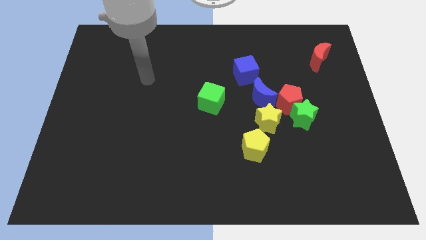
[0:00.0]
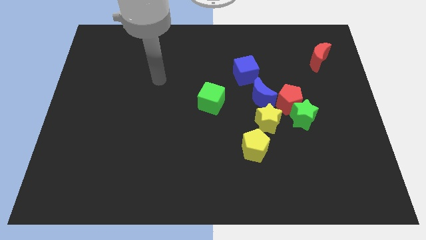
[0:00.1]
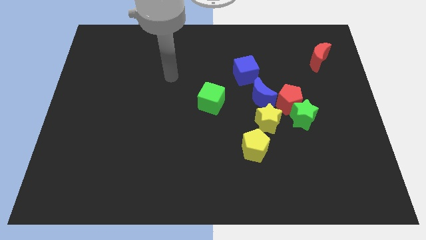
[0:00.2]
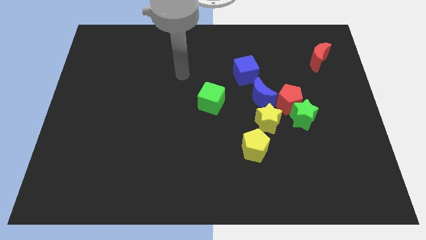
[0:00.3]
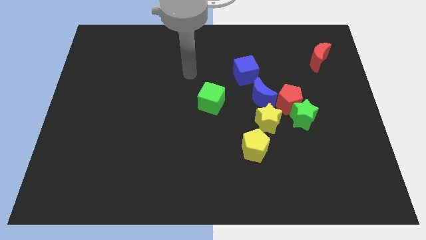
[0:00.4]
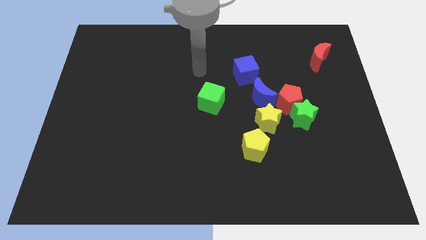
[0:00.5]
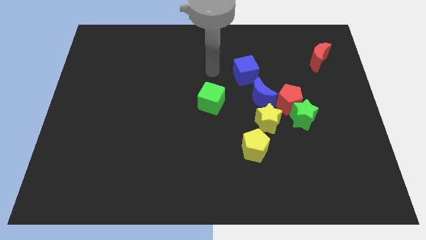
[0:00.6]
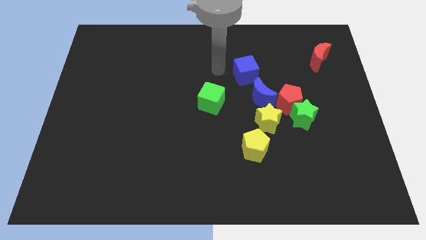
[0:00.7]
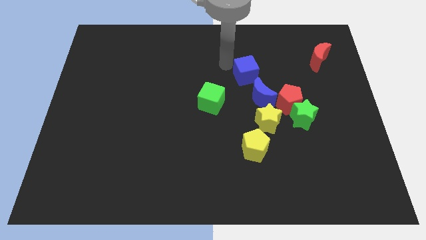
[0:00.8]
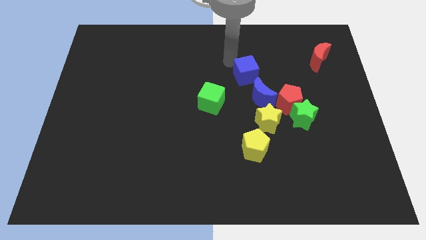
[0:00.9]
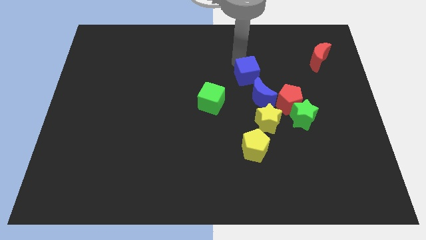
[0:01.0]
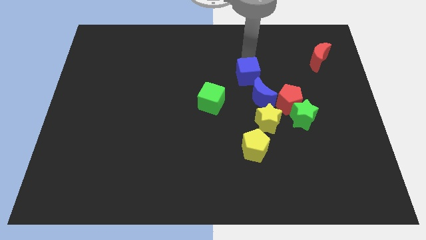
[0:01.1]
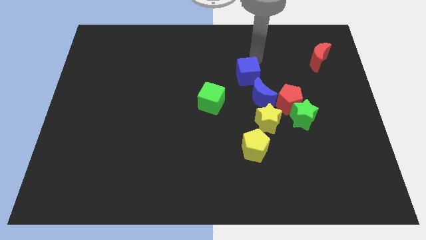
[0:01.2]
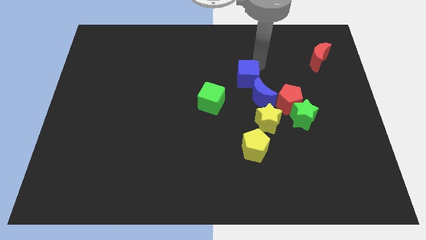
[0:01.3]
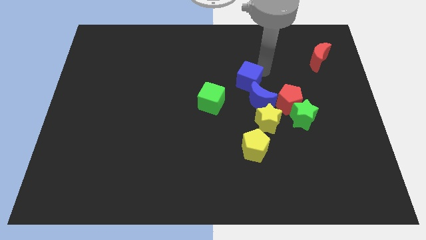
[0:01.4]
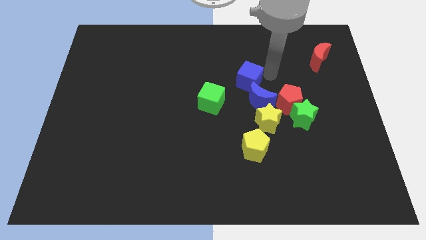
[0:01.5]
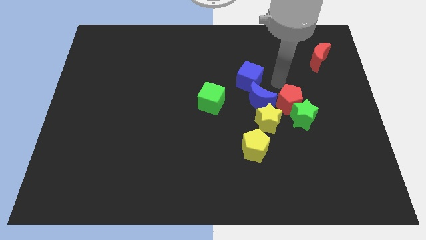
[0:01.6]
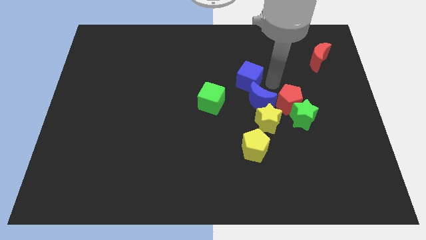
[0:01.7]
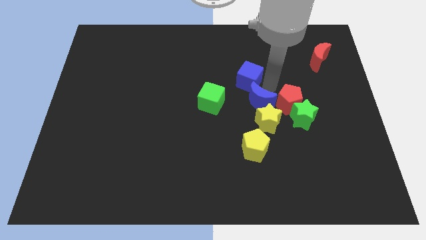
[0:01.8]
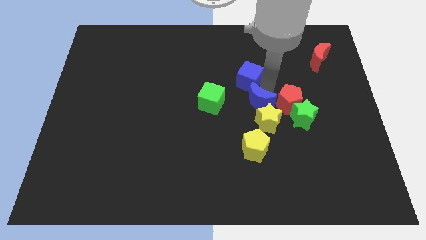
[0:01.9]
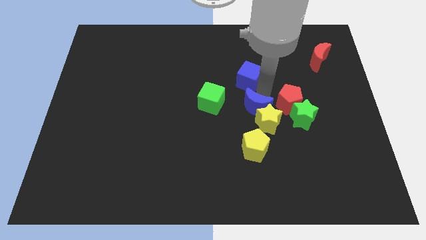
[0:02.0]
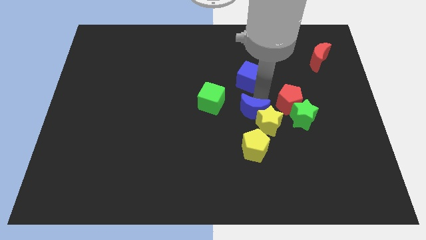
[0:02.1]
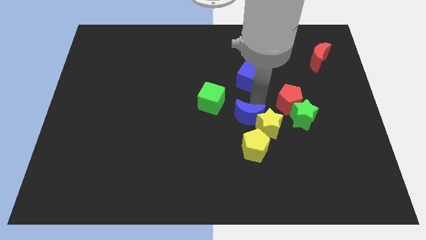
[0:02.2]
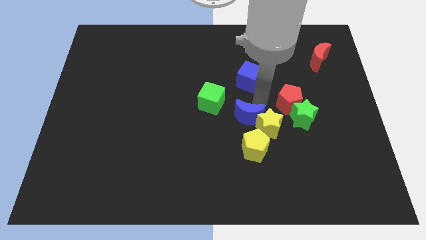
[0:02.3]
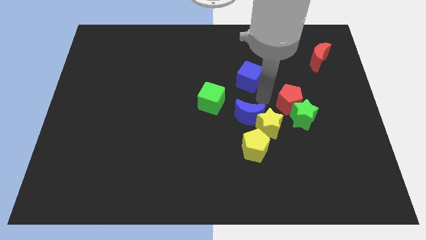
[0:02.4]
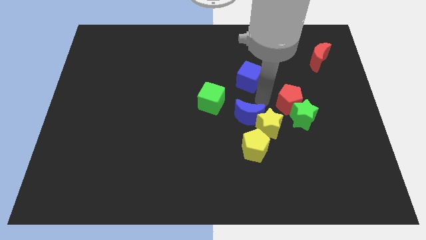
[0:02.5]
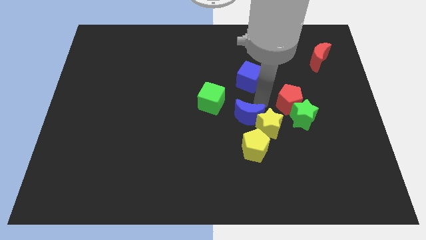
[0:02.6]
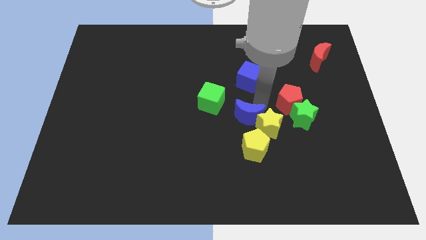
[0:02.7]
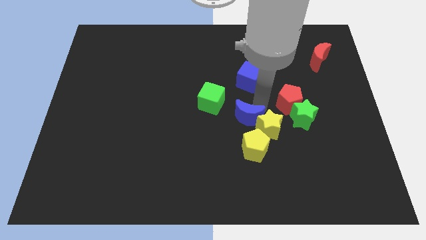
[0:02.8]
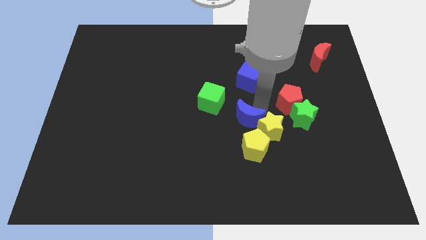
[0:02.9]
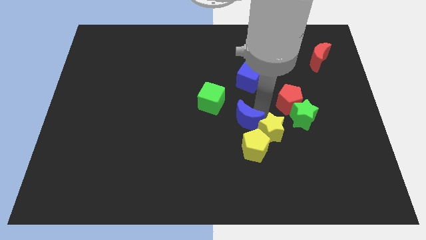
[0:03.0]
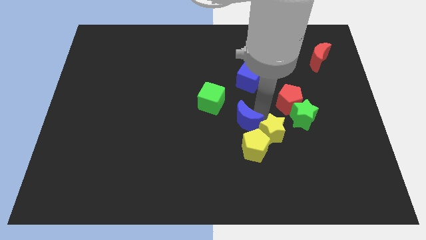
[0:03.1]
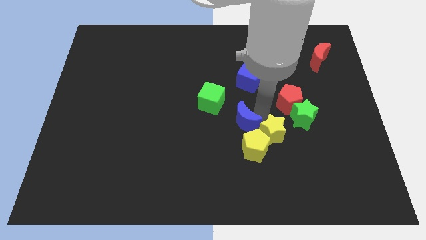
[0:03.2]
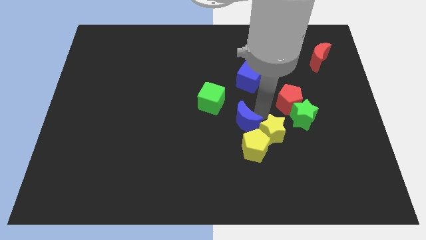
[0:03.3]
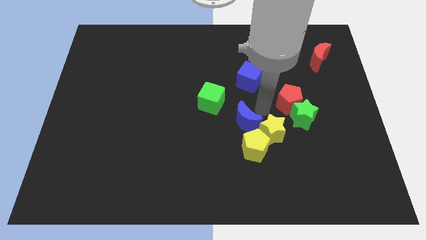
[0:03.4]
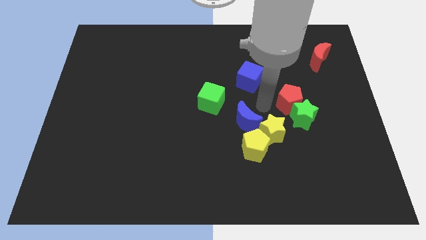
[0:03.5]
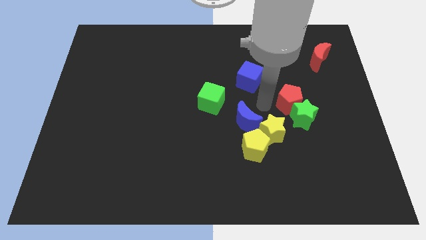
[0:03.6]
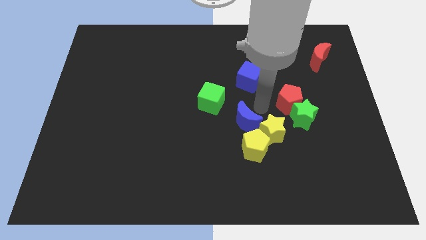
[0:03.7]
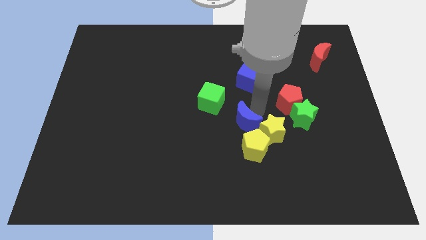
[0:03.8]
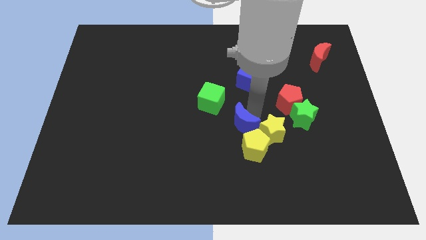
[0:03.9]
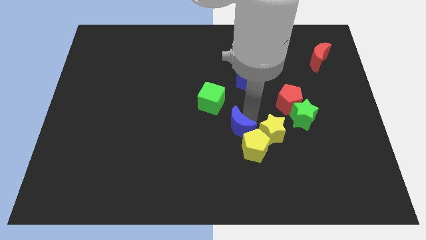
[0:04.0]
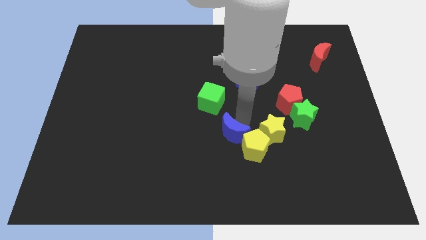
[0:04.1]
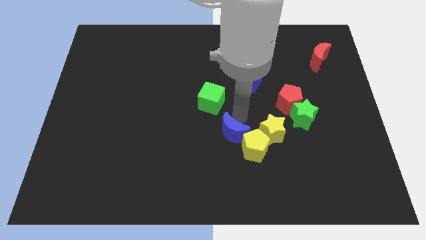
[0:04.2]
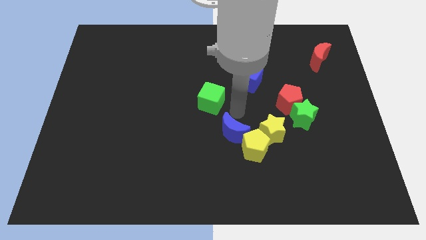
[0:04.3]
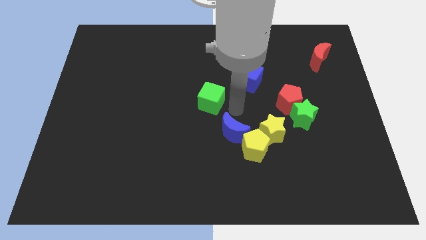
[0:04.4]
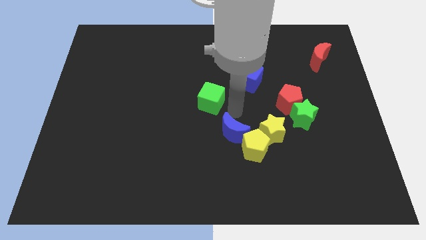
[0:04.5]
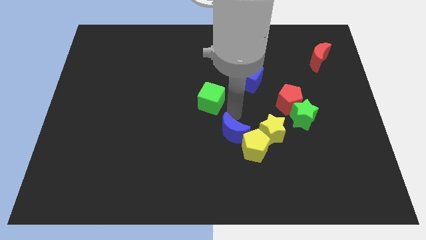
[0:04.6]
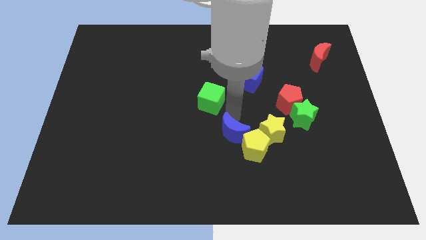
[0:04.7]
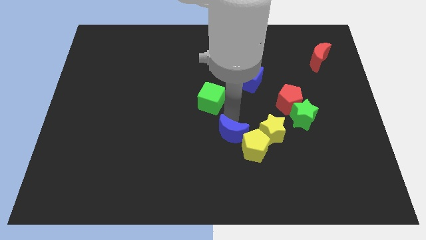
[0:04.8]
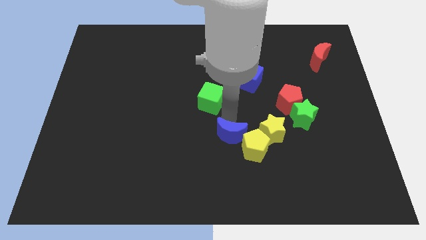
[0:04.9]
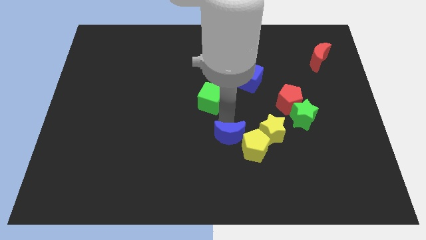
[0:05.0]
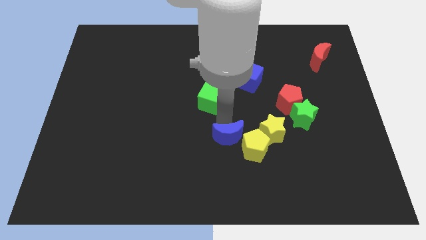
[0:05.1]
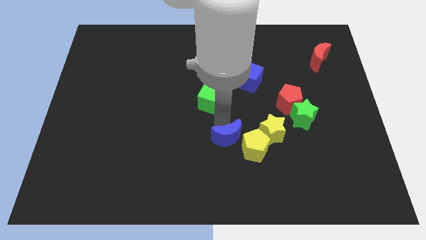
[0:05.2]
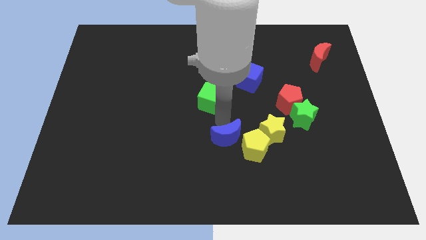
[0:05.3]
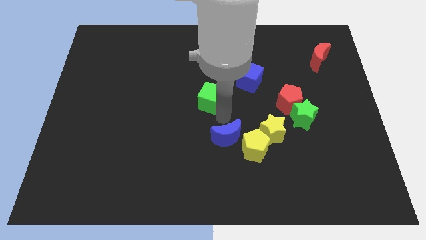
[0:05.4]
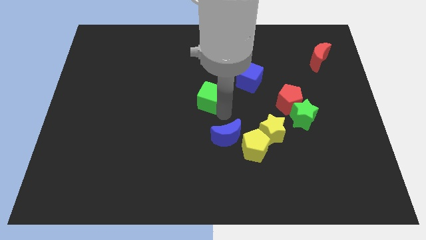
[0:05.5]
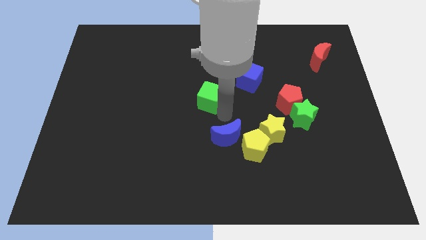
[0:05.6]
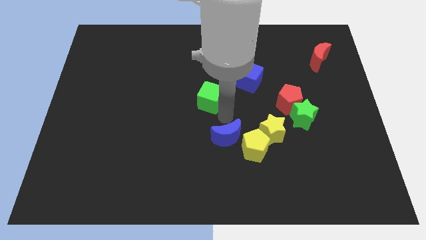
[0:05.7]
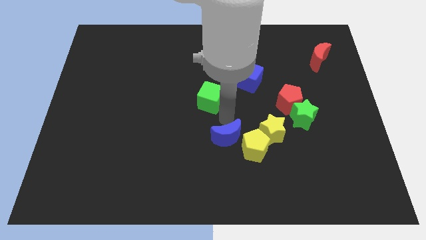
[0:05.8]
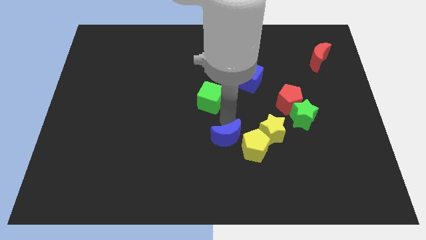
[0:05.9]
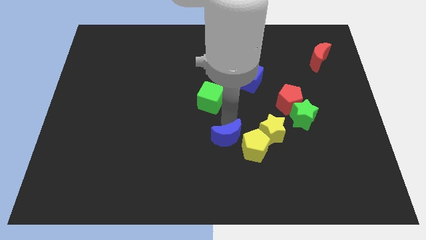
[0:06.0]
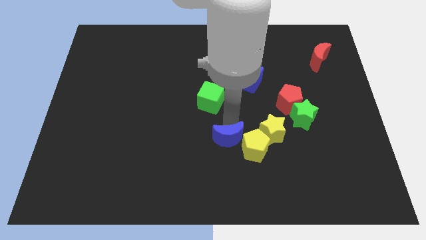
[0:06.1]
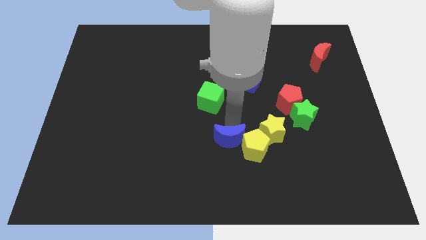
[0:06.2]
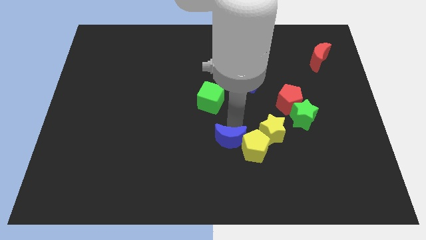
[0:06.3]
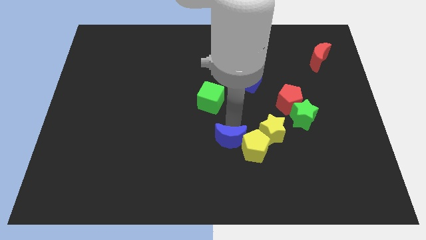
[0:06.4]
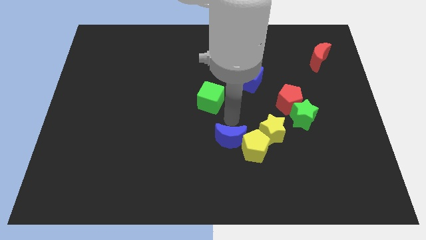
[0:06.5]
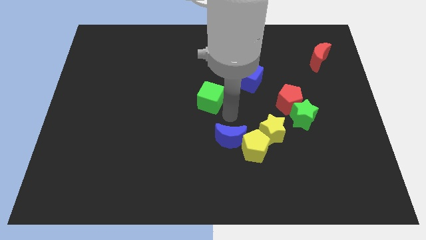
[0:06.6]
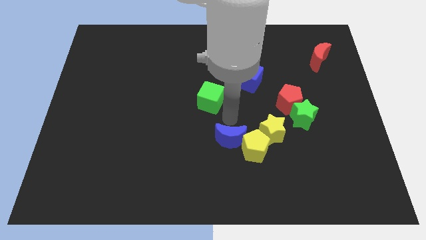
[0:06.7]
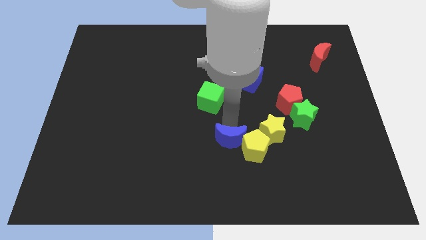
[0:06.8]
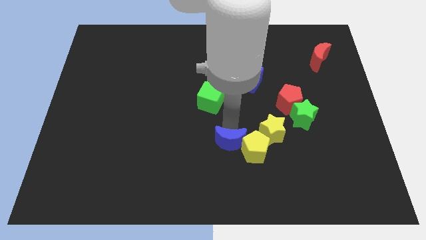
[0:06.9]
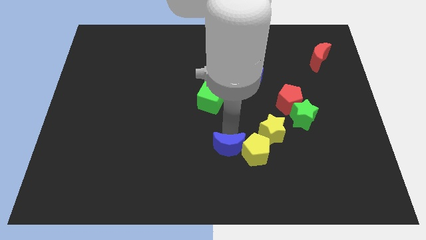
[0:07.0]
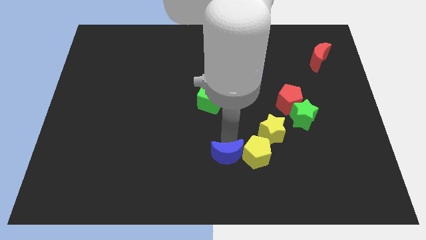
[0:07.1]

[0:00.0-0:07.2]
move the blue moon to the bottom side
